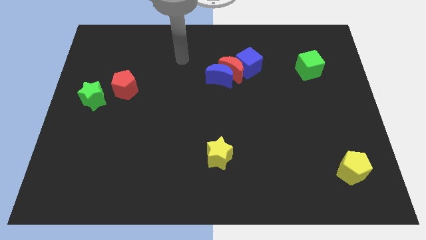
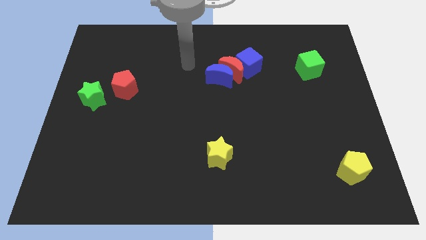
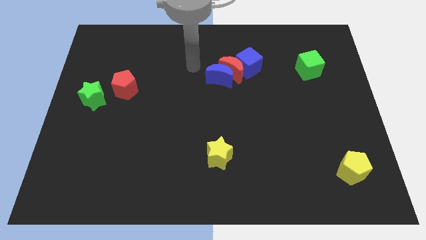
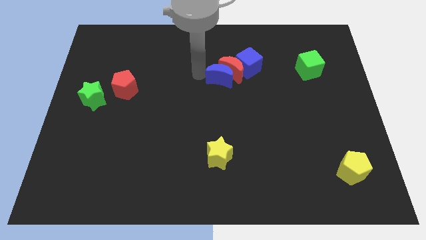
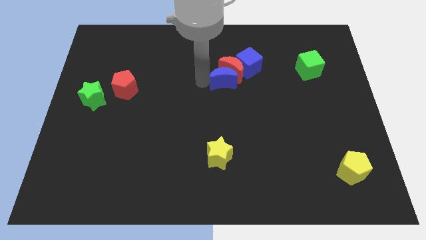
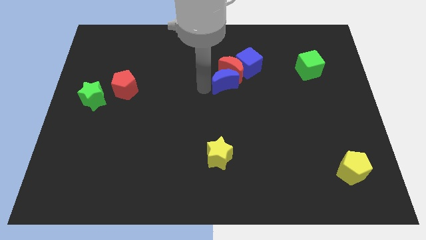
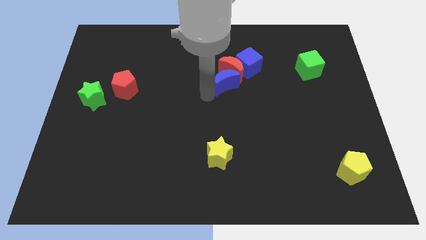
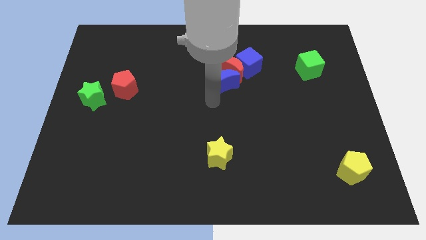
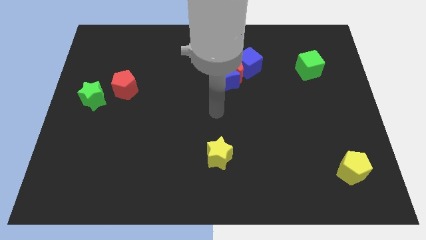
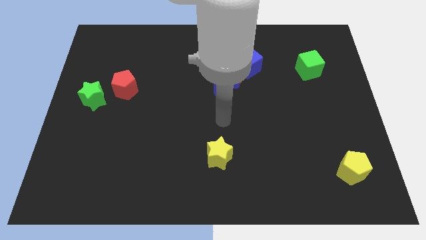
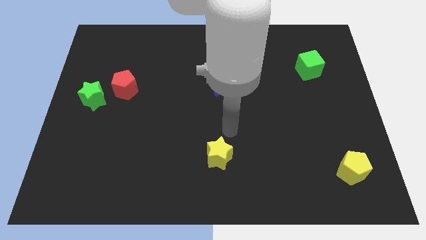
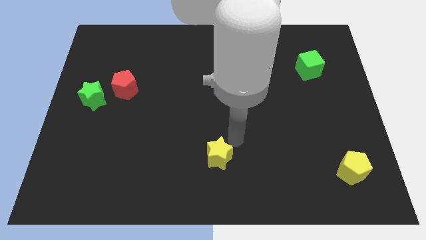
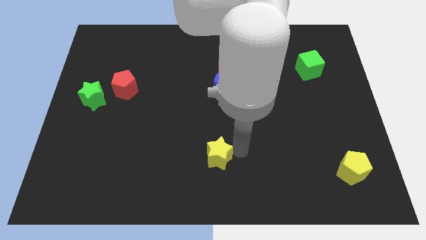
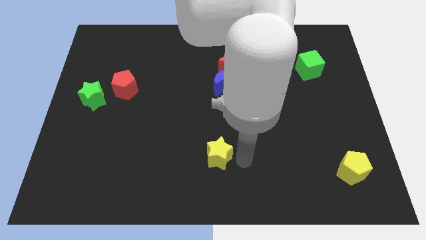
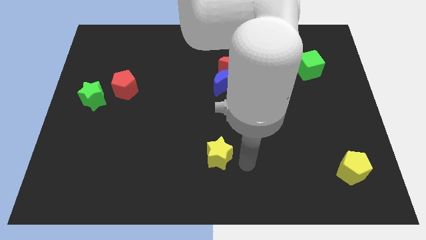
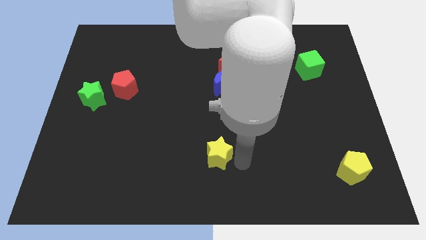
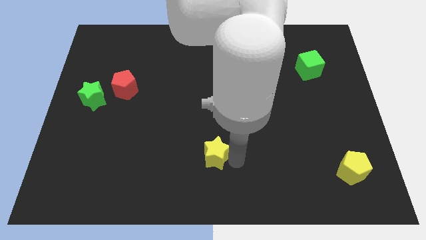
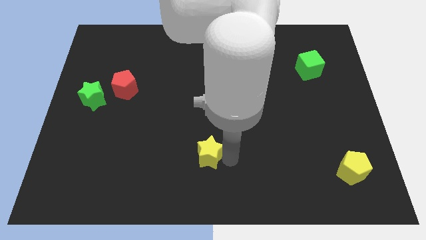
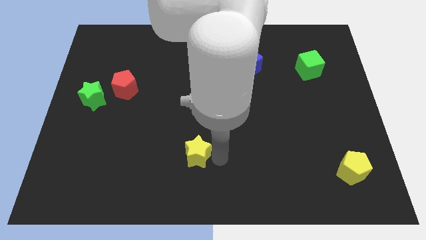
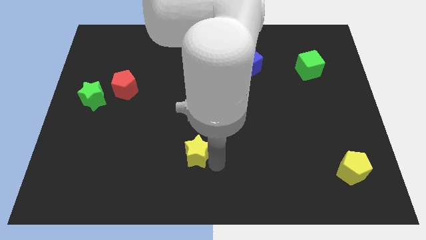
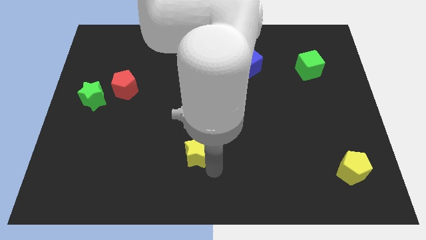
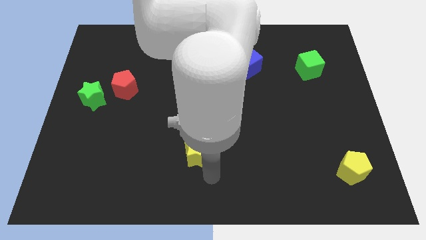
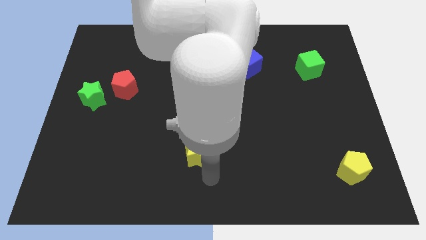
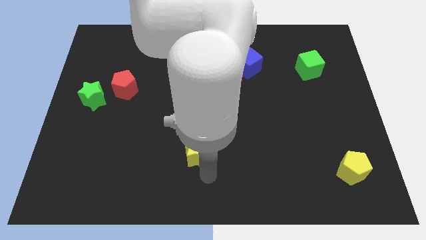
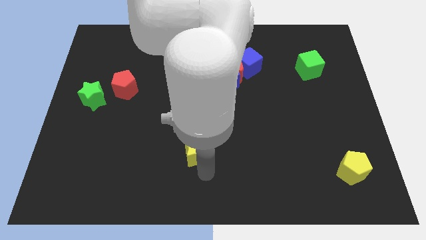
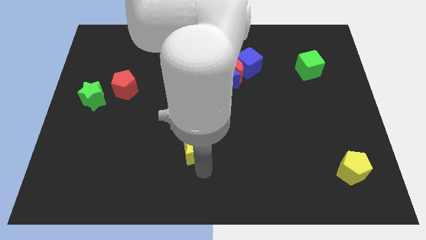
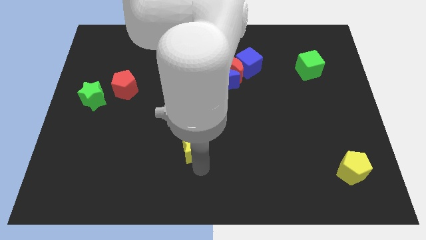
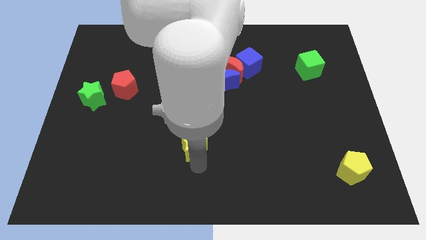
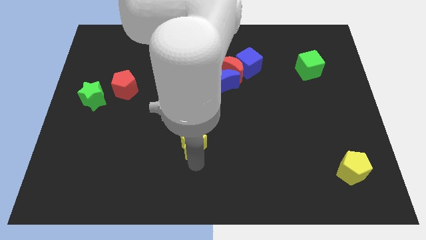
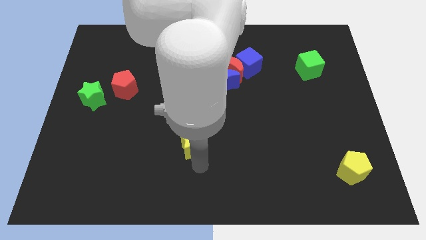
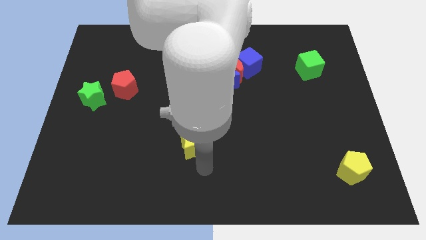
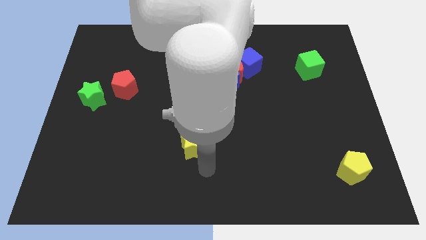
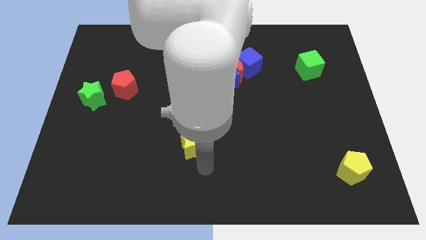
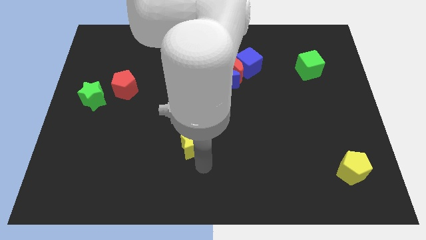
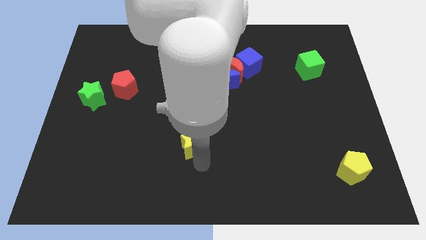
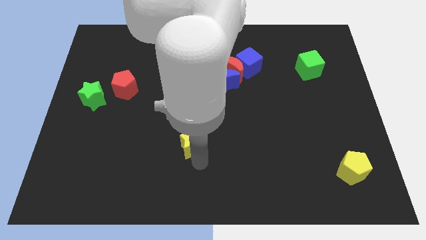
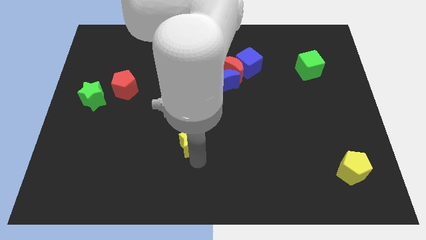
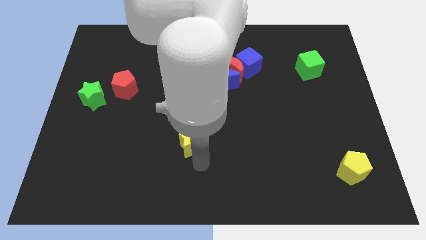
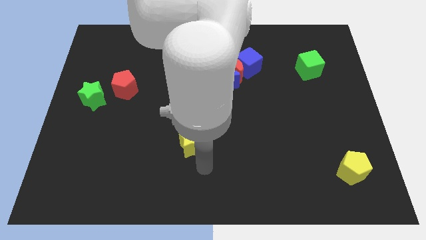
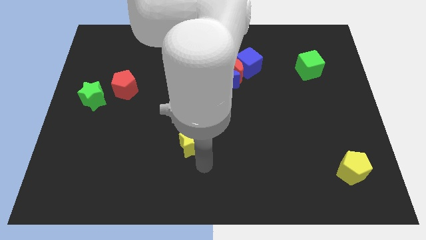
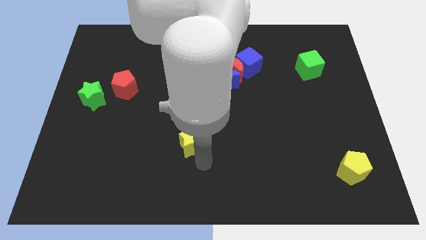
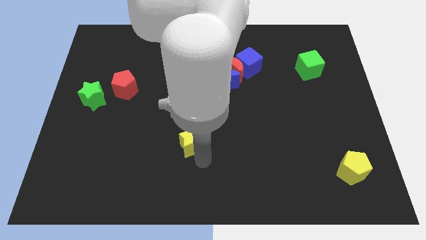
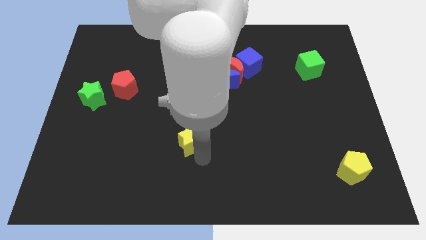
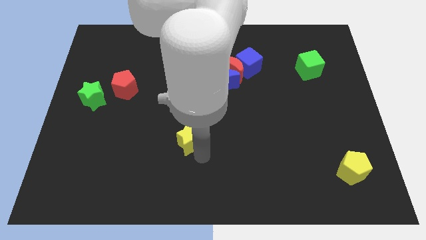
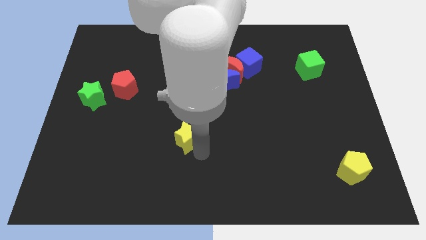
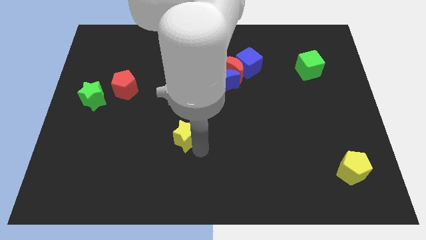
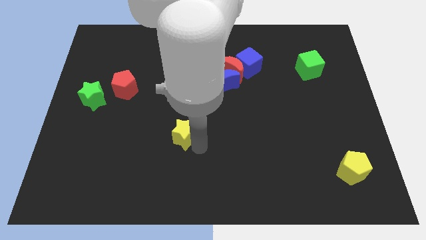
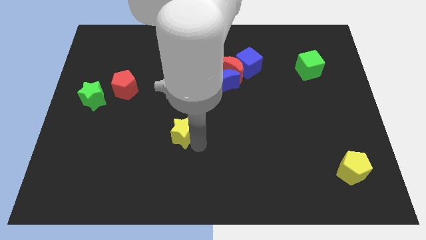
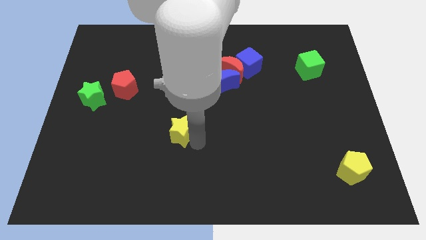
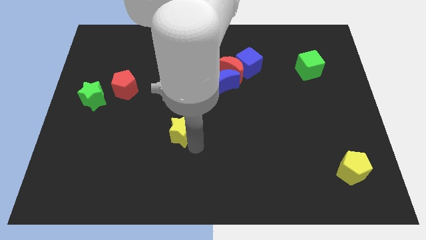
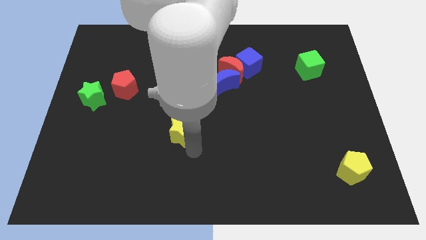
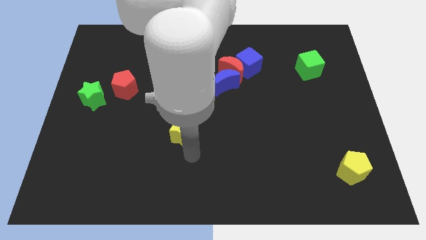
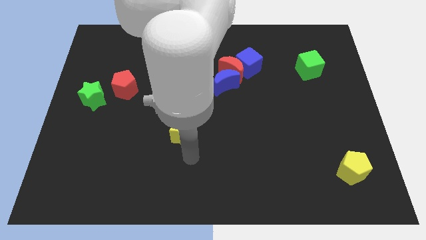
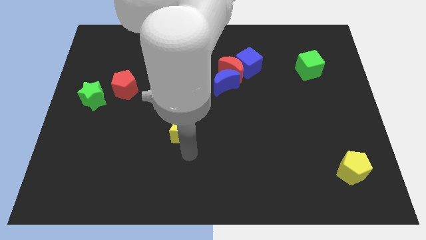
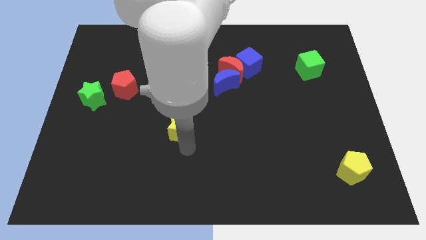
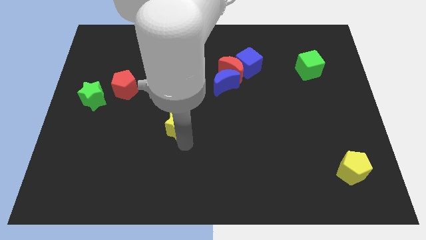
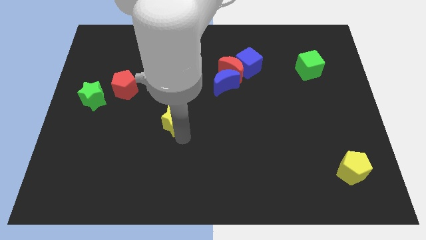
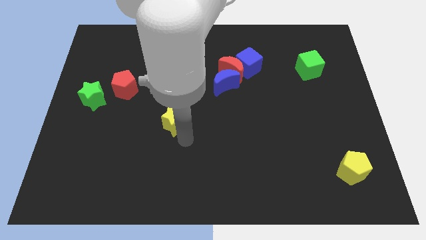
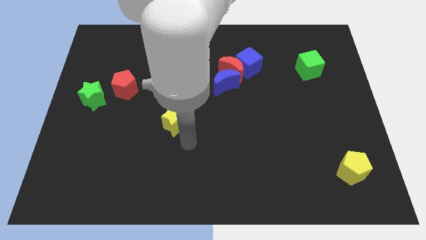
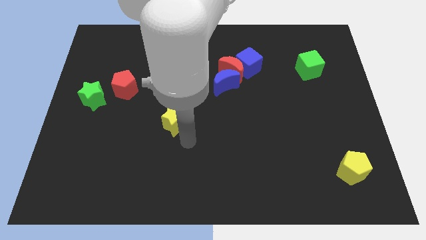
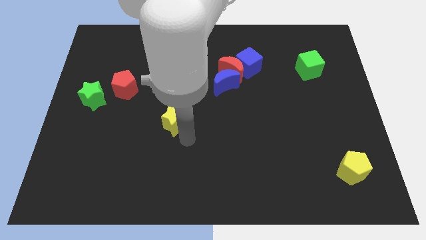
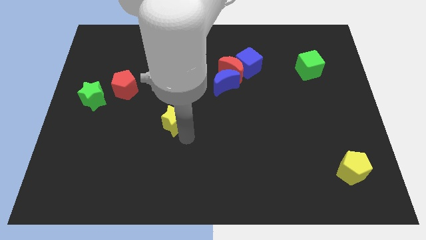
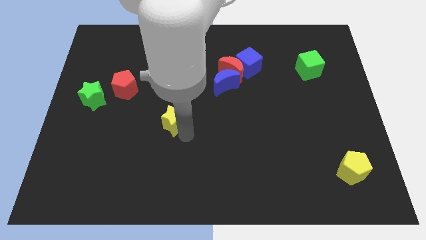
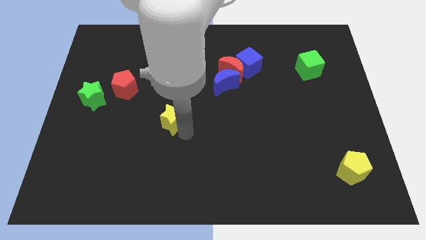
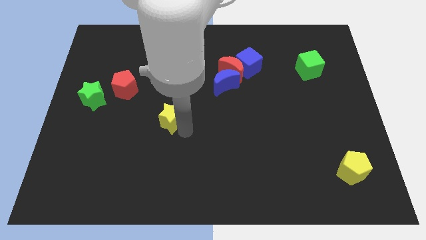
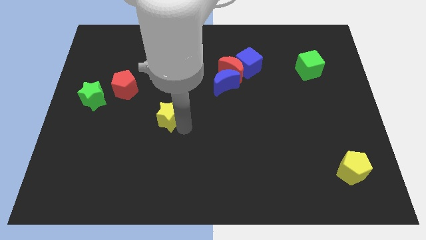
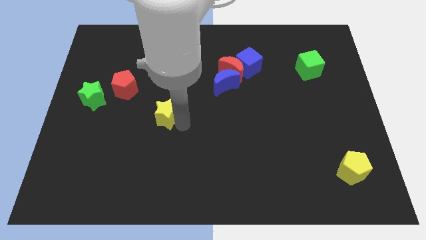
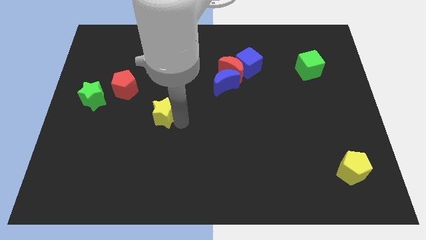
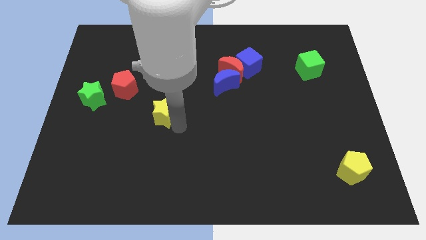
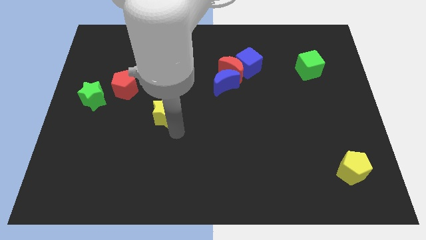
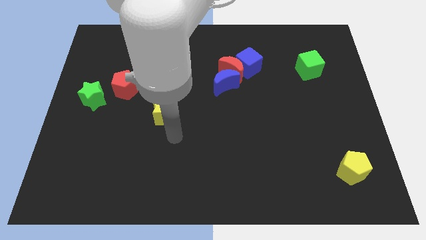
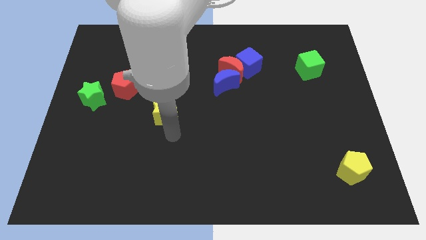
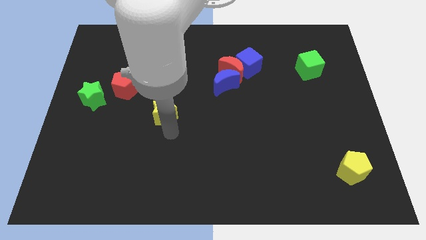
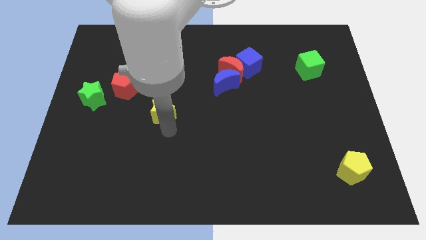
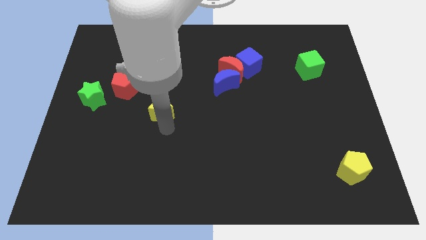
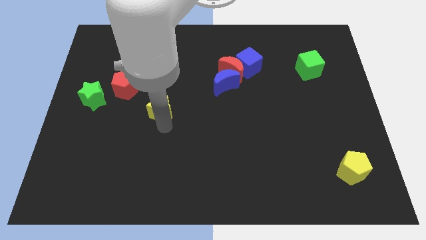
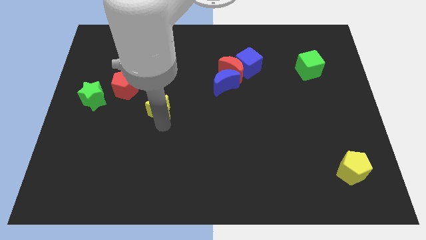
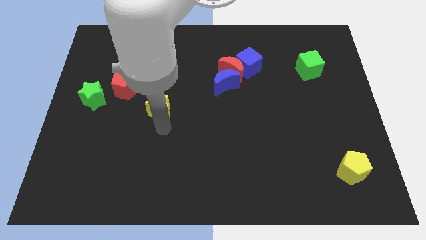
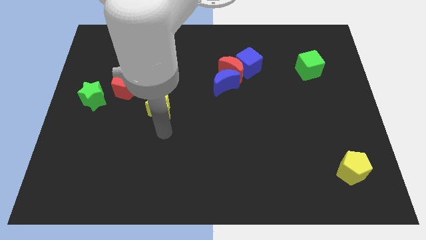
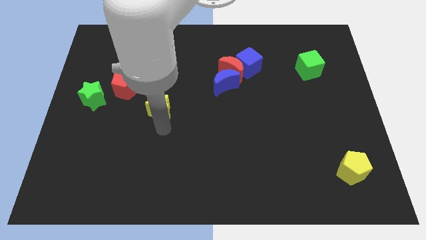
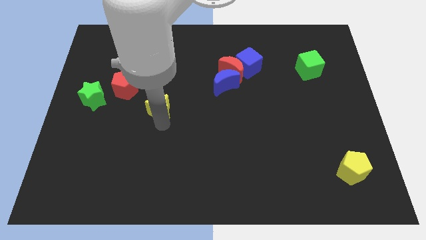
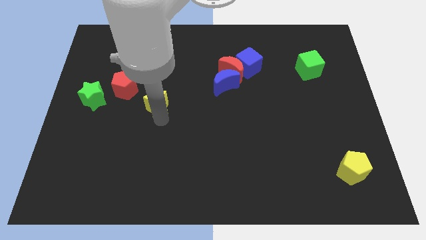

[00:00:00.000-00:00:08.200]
move the yellow star diagonally upwards and to the left
